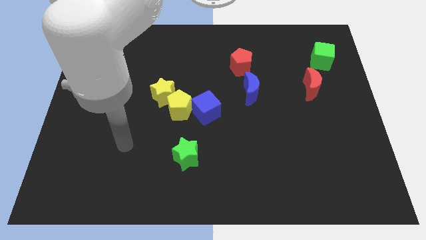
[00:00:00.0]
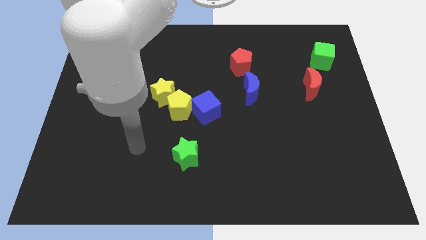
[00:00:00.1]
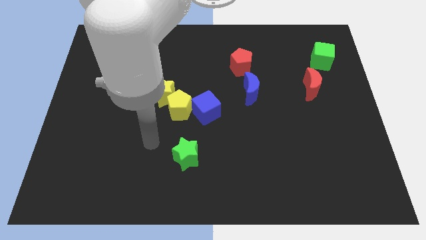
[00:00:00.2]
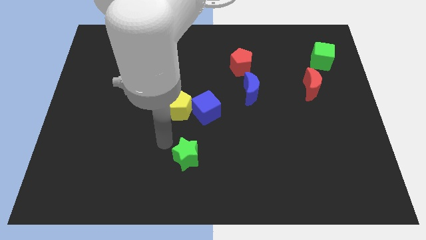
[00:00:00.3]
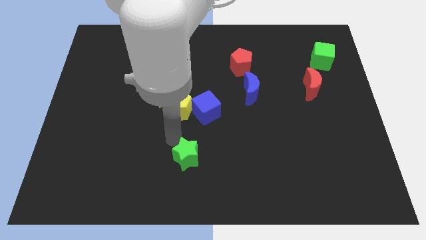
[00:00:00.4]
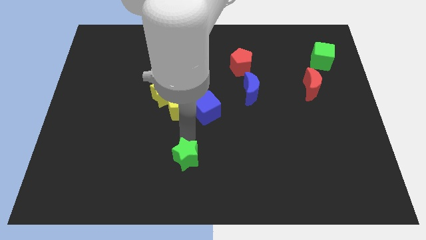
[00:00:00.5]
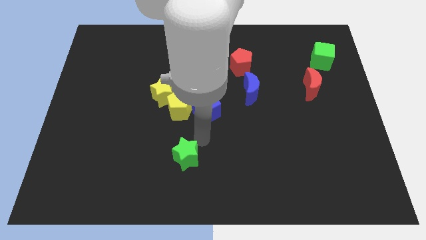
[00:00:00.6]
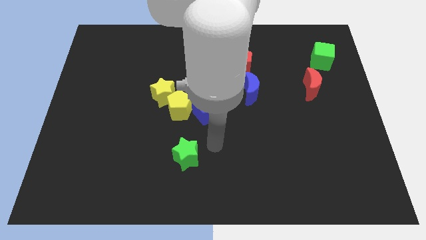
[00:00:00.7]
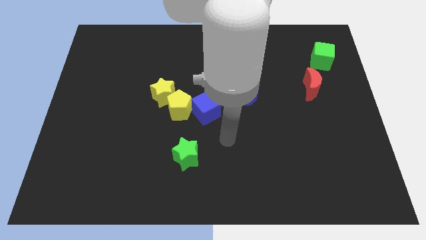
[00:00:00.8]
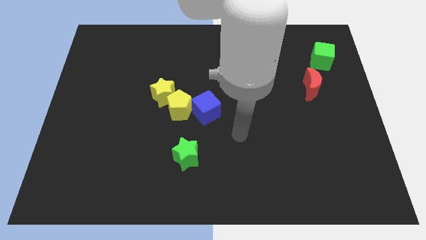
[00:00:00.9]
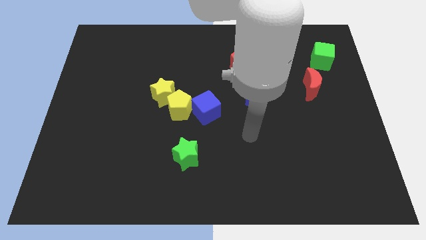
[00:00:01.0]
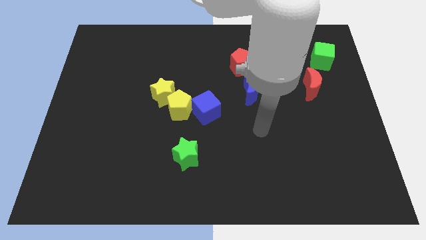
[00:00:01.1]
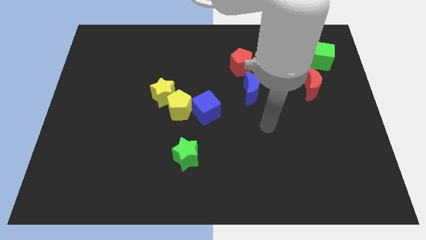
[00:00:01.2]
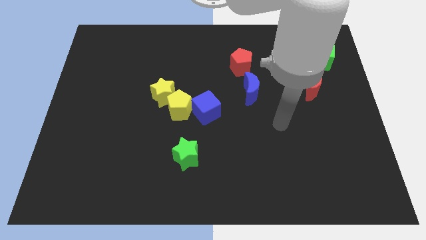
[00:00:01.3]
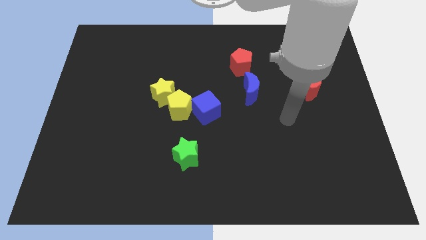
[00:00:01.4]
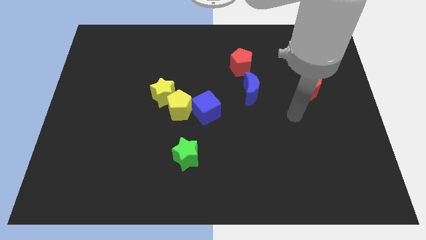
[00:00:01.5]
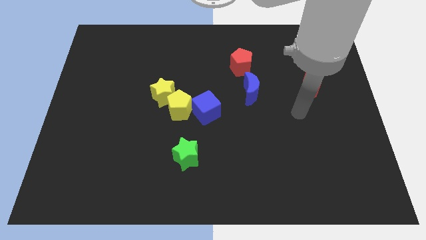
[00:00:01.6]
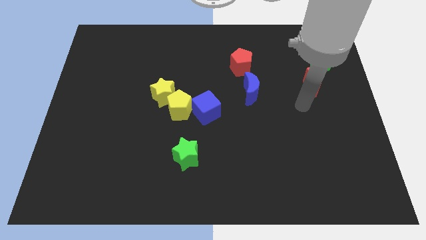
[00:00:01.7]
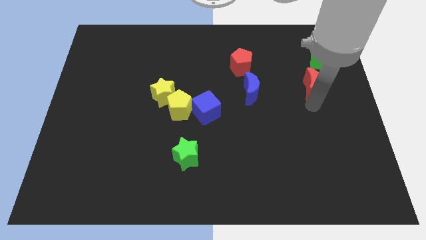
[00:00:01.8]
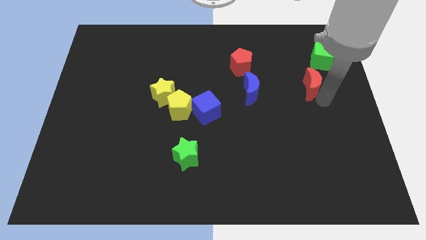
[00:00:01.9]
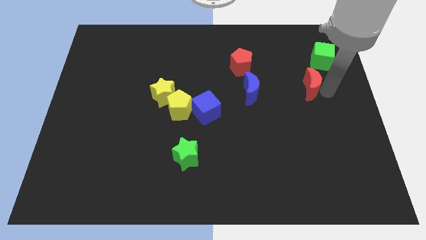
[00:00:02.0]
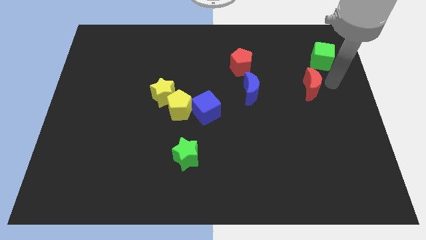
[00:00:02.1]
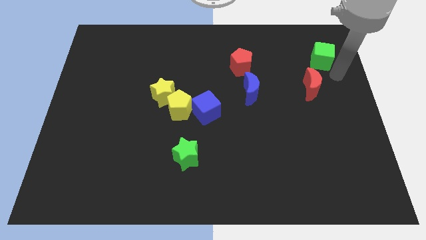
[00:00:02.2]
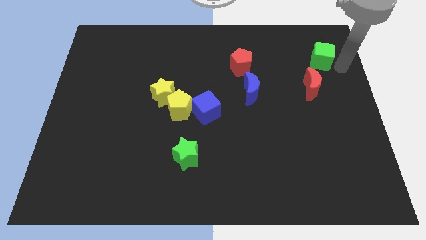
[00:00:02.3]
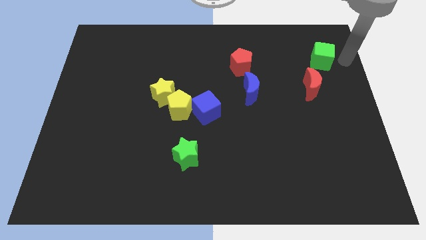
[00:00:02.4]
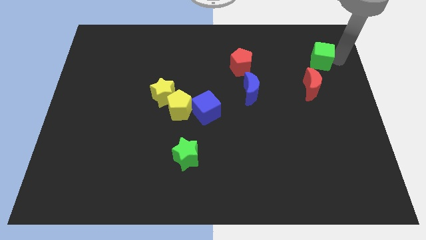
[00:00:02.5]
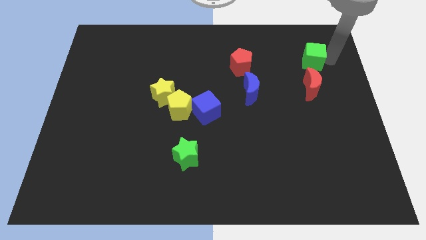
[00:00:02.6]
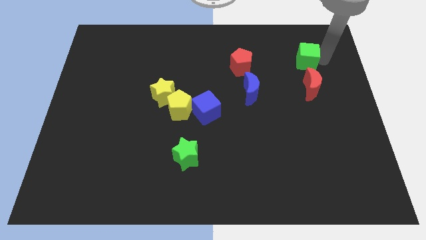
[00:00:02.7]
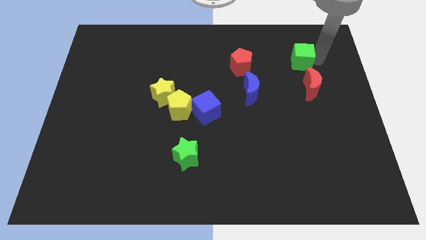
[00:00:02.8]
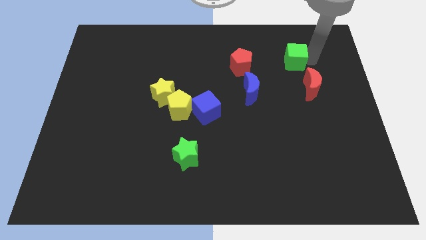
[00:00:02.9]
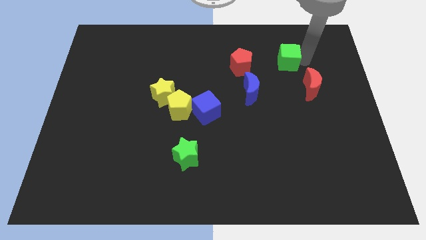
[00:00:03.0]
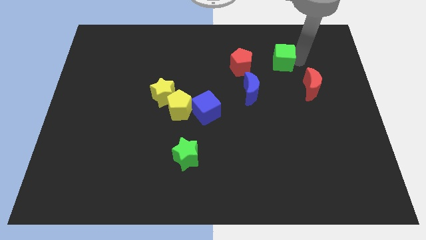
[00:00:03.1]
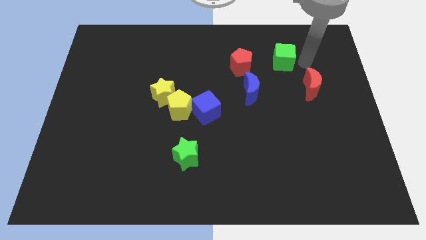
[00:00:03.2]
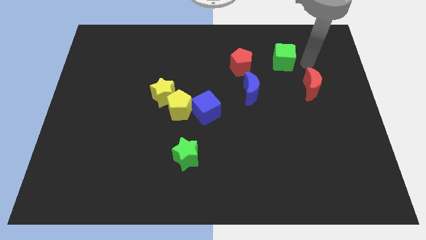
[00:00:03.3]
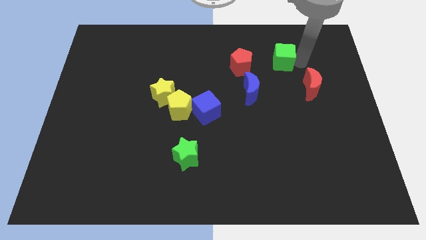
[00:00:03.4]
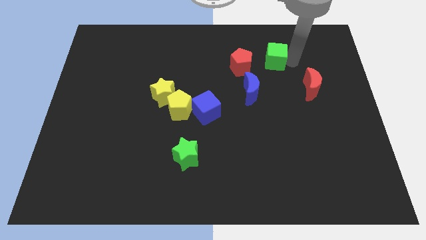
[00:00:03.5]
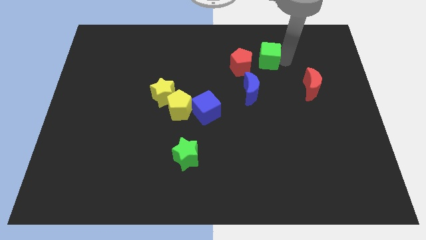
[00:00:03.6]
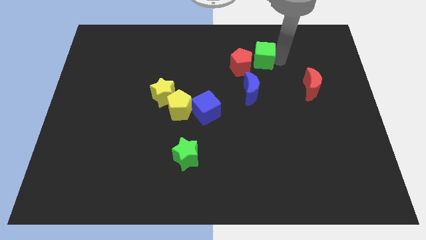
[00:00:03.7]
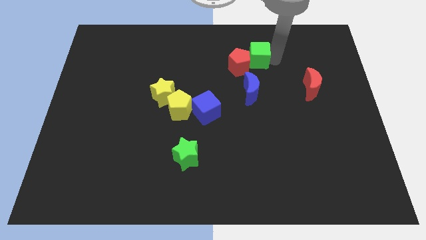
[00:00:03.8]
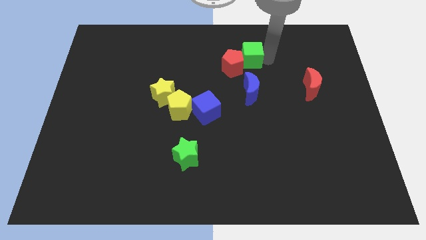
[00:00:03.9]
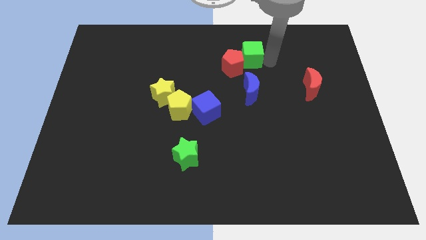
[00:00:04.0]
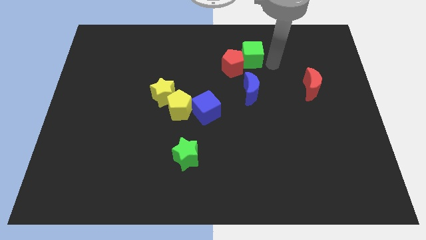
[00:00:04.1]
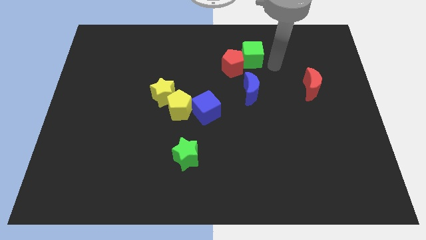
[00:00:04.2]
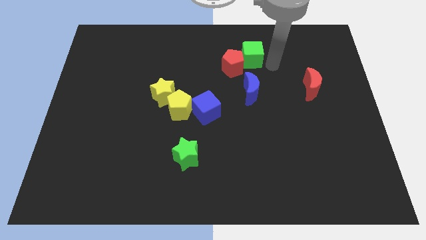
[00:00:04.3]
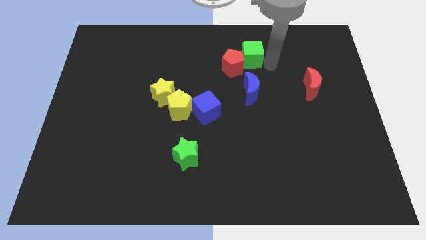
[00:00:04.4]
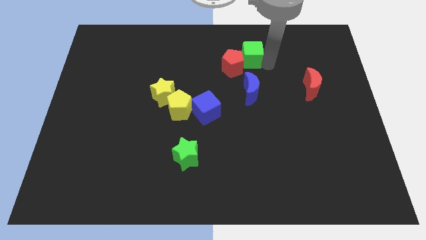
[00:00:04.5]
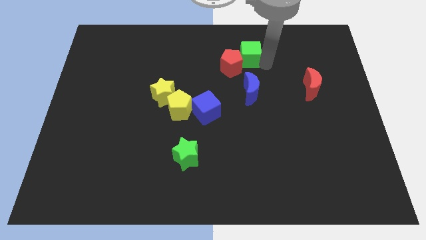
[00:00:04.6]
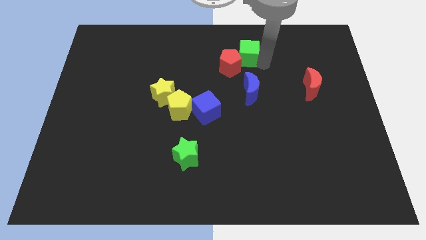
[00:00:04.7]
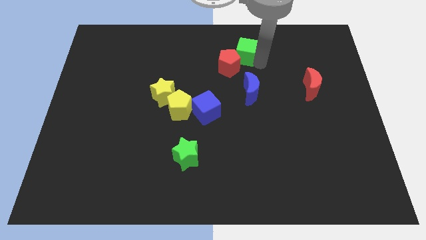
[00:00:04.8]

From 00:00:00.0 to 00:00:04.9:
slide the green cube left

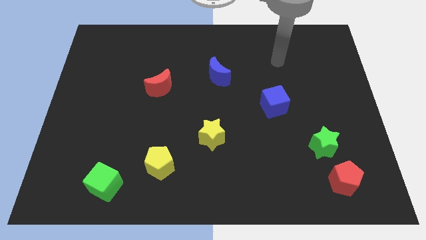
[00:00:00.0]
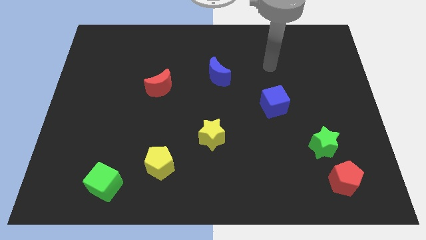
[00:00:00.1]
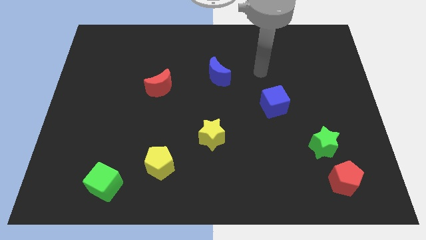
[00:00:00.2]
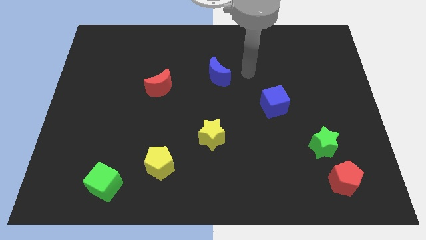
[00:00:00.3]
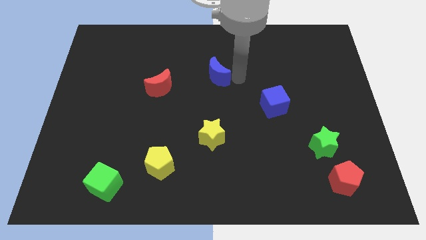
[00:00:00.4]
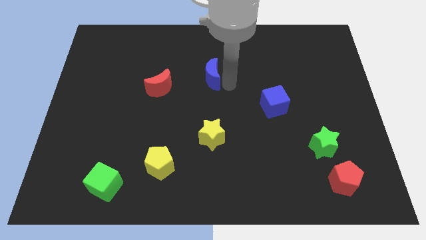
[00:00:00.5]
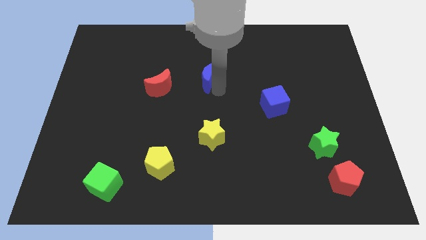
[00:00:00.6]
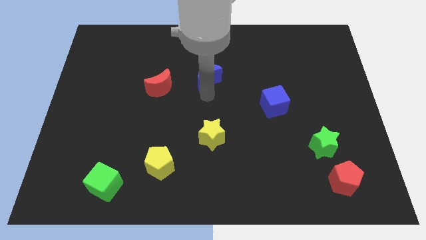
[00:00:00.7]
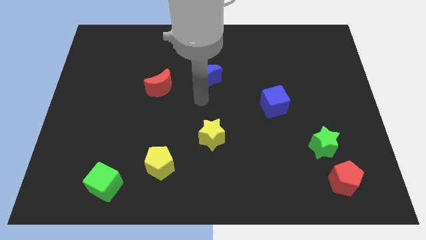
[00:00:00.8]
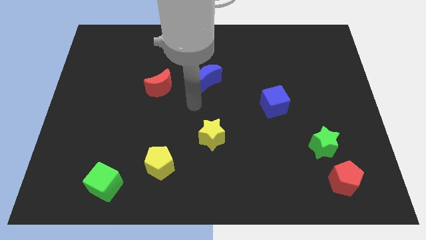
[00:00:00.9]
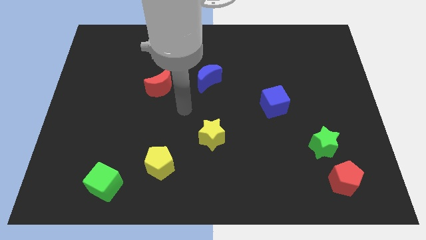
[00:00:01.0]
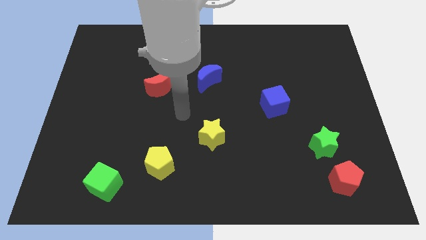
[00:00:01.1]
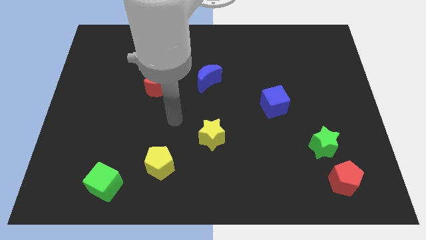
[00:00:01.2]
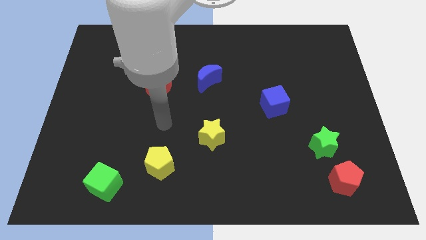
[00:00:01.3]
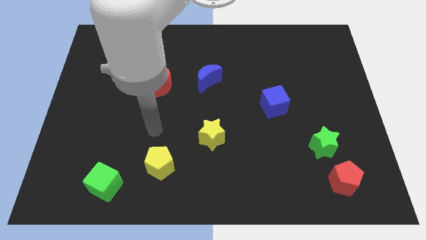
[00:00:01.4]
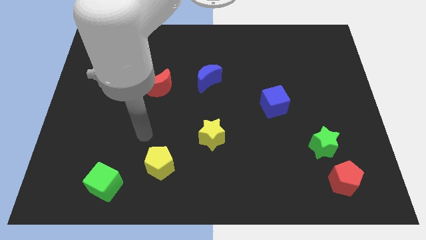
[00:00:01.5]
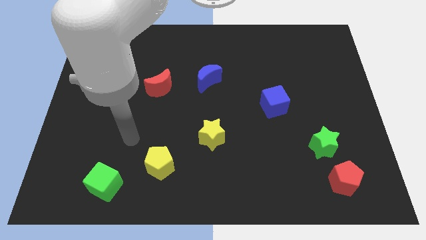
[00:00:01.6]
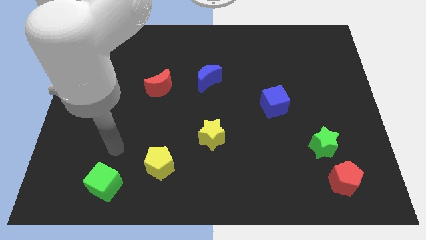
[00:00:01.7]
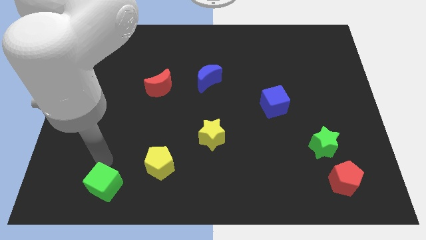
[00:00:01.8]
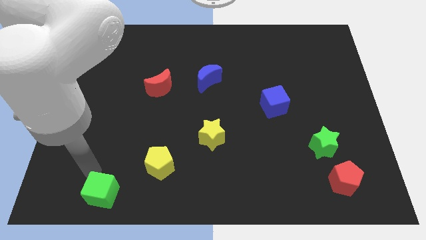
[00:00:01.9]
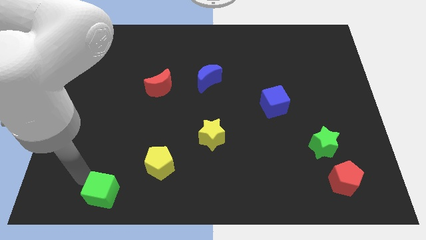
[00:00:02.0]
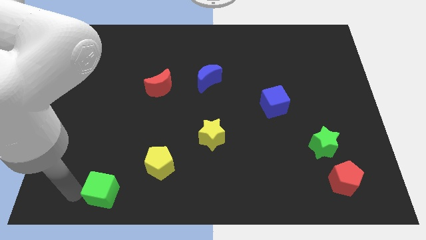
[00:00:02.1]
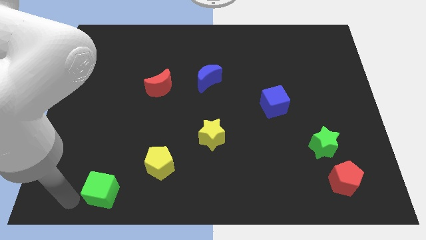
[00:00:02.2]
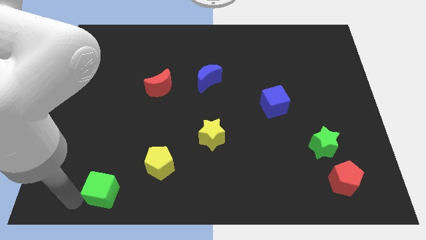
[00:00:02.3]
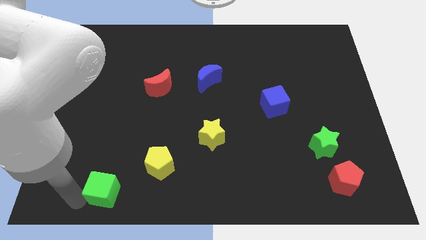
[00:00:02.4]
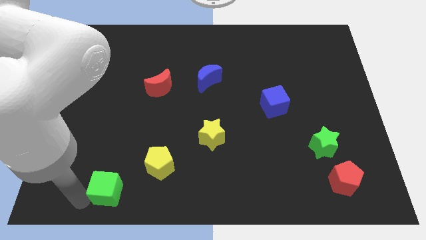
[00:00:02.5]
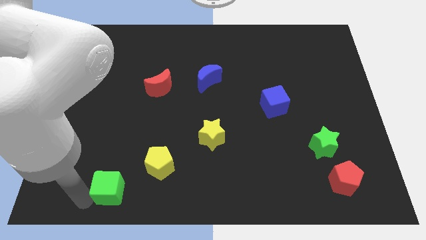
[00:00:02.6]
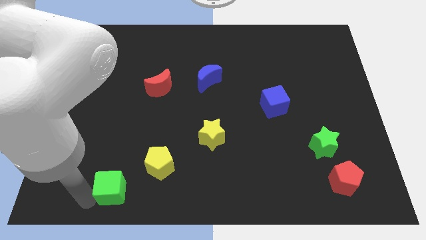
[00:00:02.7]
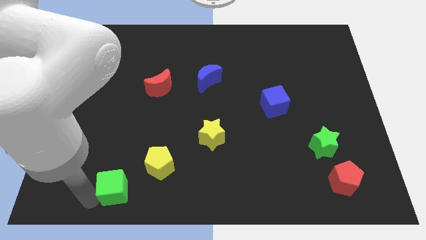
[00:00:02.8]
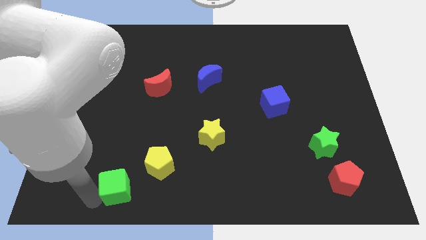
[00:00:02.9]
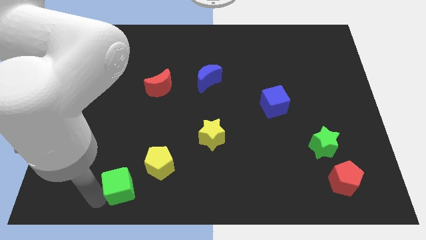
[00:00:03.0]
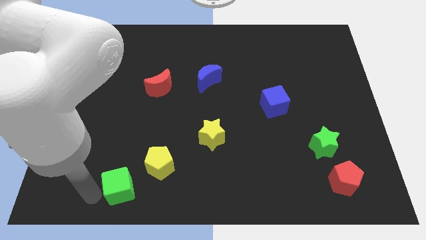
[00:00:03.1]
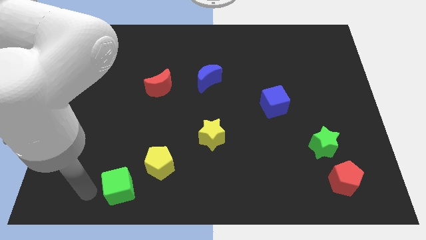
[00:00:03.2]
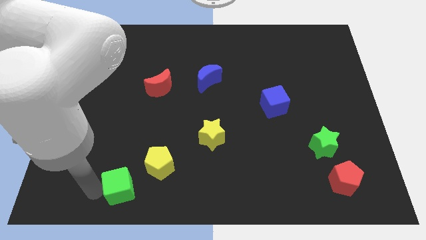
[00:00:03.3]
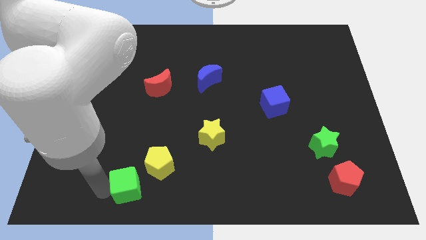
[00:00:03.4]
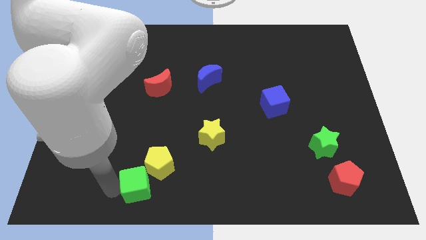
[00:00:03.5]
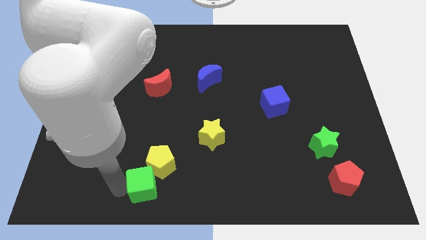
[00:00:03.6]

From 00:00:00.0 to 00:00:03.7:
push the green cube a little bit to the right
